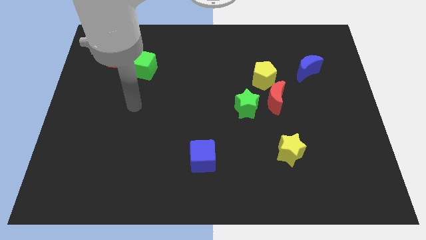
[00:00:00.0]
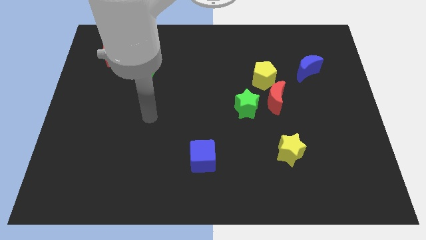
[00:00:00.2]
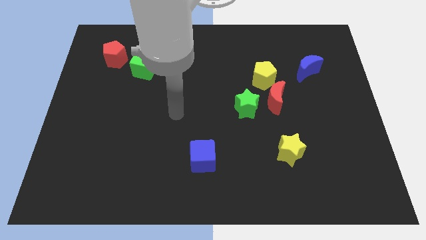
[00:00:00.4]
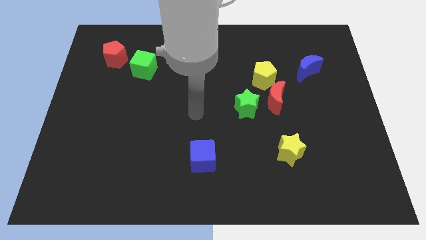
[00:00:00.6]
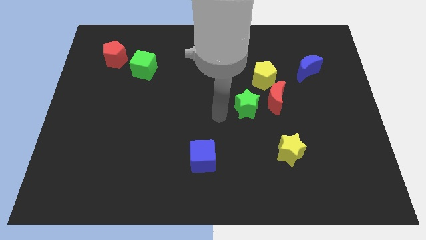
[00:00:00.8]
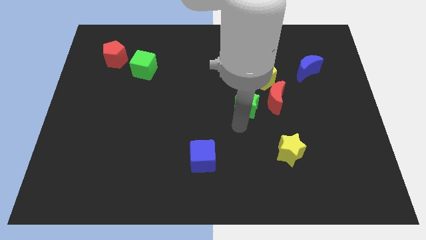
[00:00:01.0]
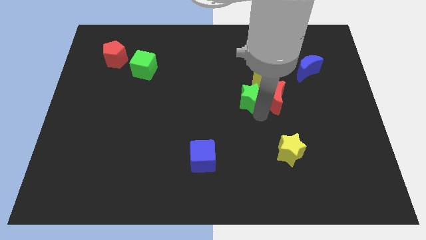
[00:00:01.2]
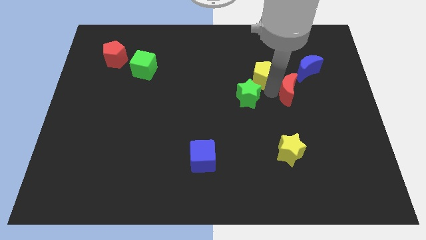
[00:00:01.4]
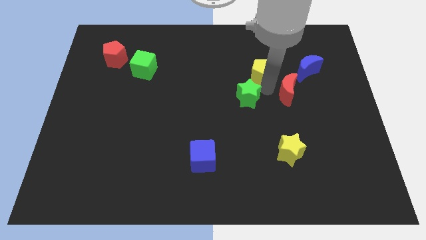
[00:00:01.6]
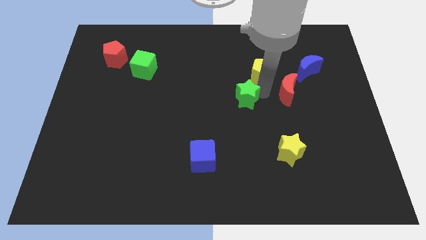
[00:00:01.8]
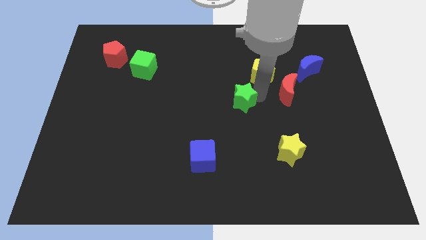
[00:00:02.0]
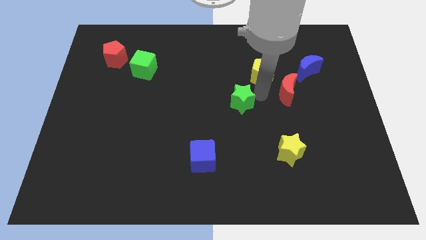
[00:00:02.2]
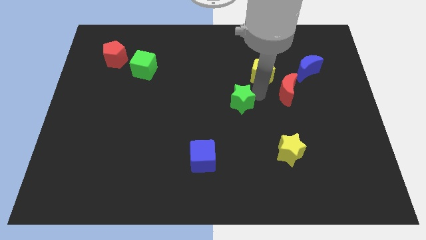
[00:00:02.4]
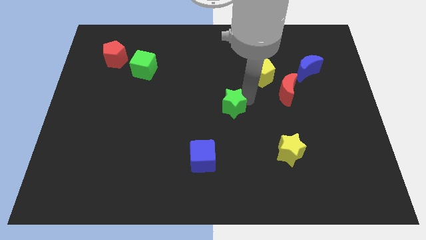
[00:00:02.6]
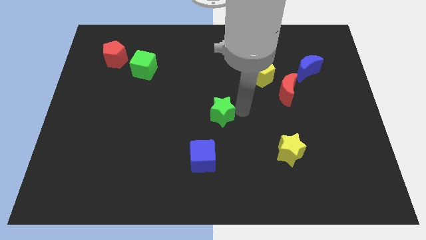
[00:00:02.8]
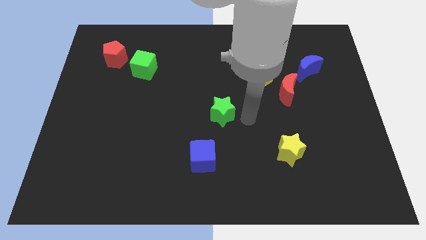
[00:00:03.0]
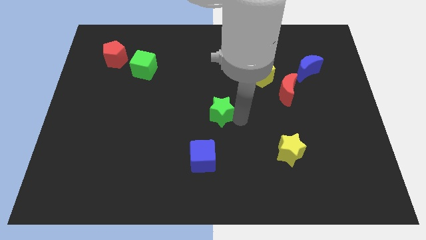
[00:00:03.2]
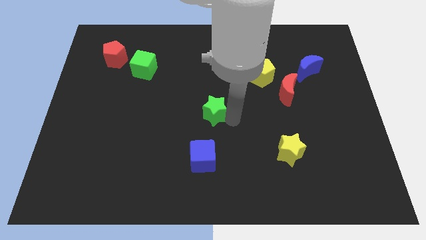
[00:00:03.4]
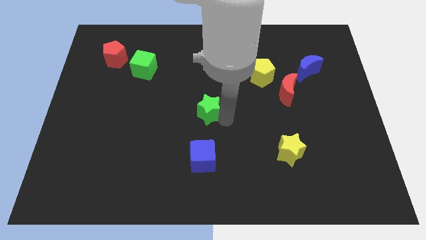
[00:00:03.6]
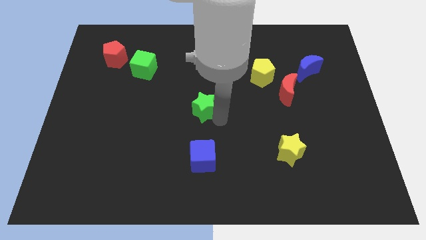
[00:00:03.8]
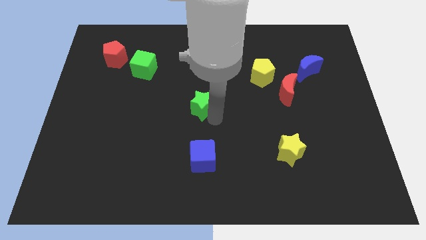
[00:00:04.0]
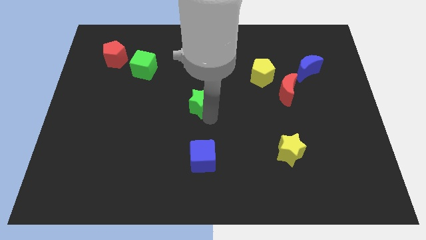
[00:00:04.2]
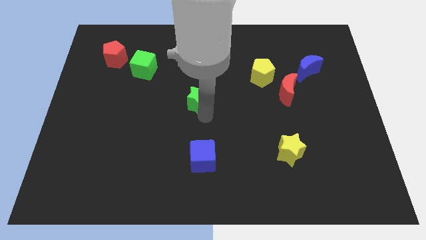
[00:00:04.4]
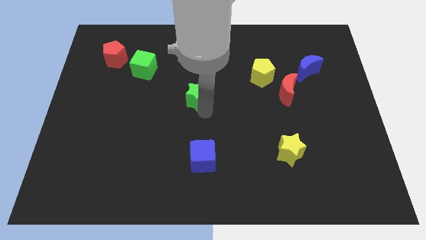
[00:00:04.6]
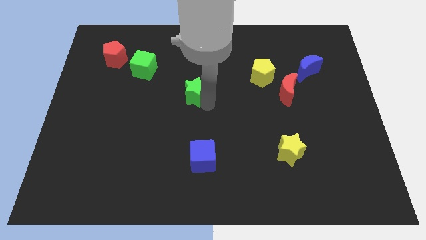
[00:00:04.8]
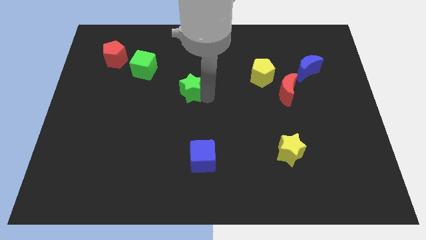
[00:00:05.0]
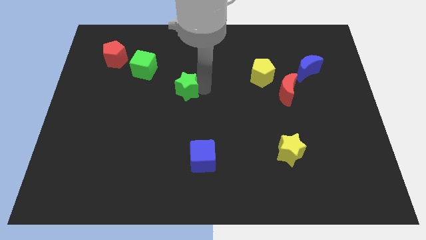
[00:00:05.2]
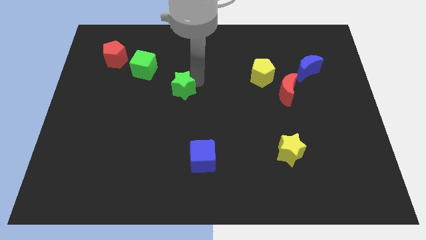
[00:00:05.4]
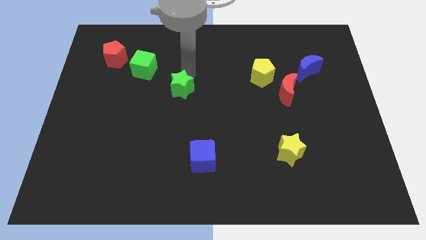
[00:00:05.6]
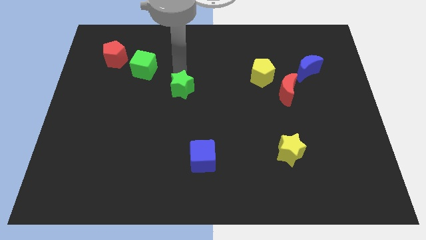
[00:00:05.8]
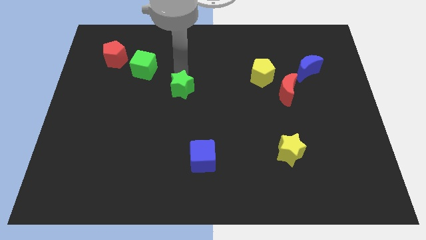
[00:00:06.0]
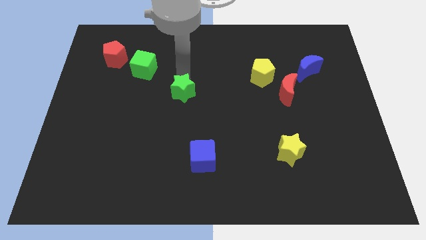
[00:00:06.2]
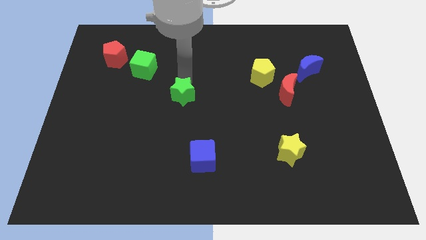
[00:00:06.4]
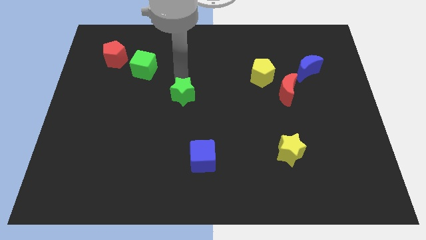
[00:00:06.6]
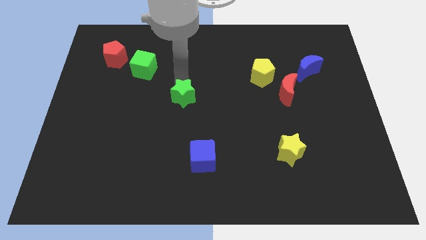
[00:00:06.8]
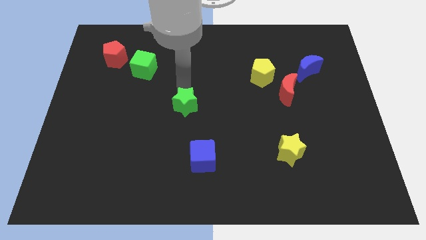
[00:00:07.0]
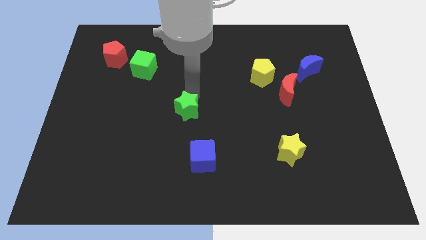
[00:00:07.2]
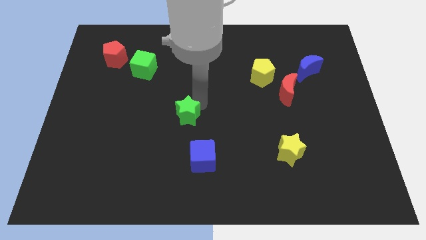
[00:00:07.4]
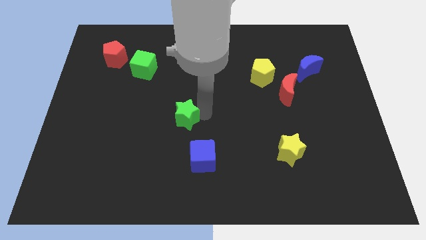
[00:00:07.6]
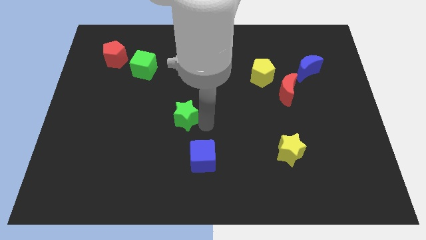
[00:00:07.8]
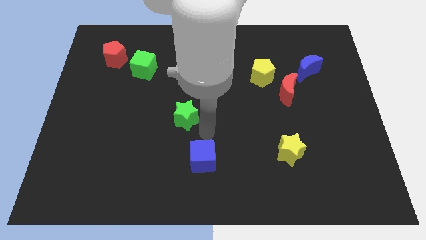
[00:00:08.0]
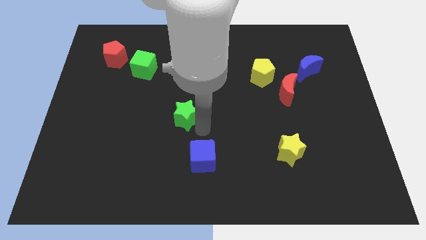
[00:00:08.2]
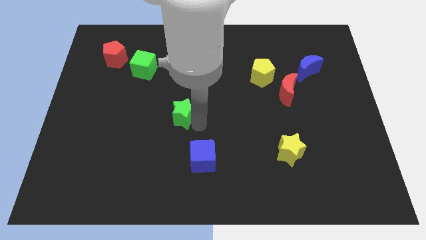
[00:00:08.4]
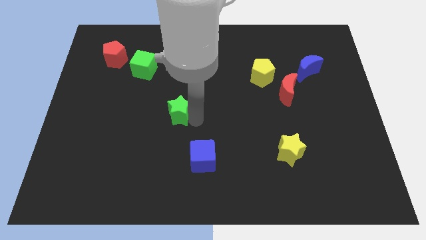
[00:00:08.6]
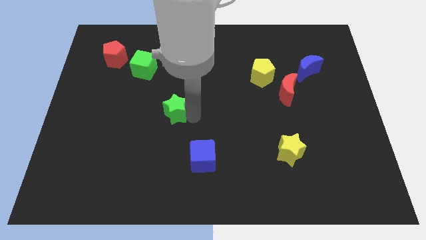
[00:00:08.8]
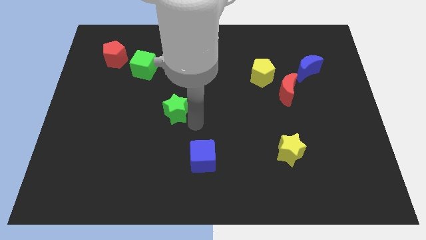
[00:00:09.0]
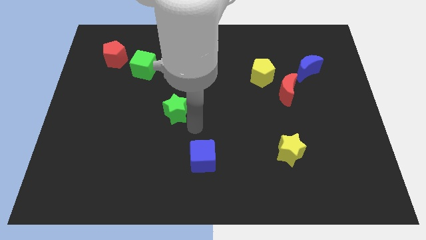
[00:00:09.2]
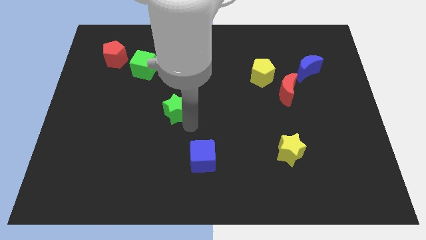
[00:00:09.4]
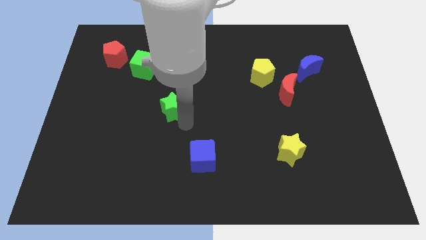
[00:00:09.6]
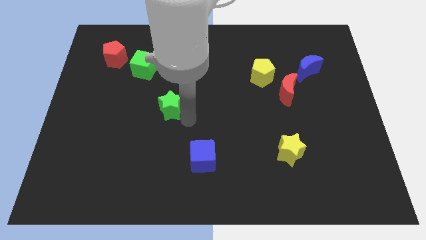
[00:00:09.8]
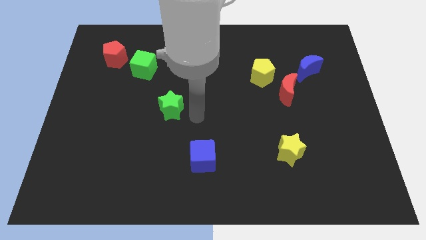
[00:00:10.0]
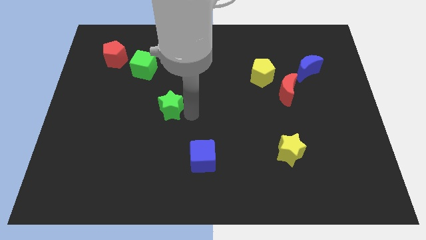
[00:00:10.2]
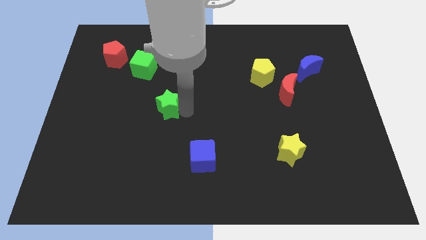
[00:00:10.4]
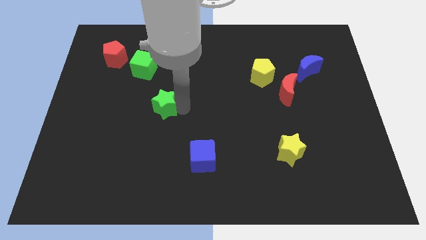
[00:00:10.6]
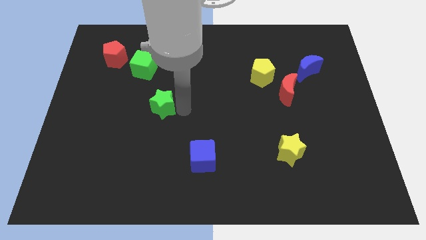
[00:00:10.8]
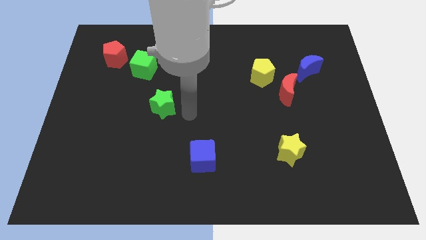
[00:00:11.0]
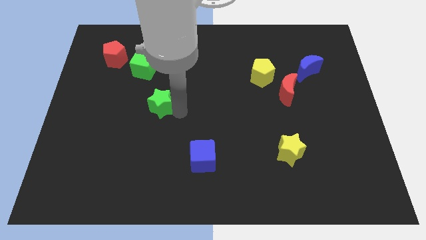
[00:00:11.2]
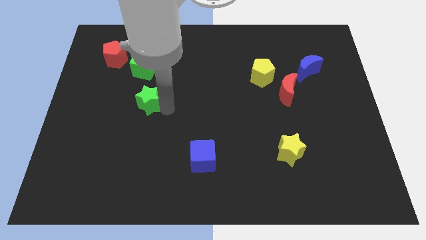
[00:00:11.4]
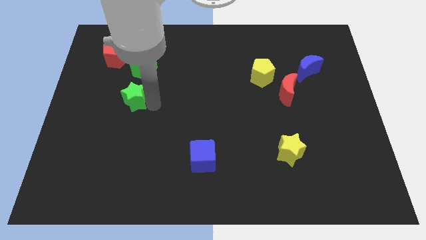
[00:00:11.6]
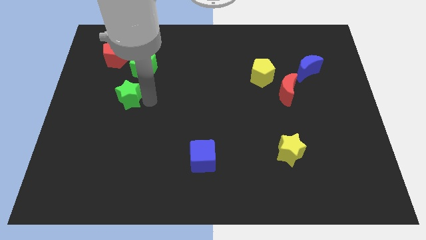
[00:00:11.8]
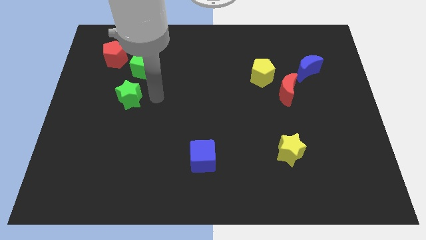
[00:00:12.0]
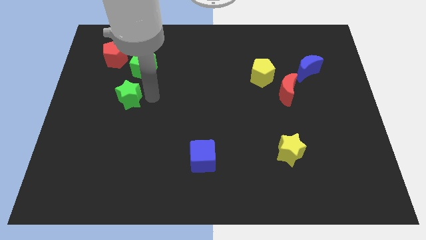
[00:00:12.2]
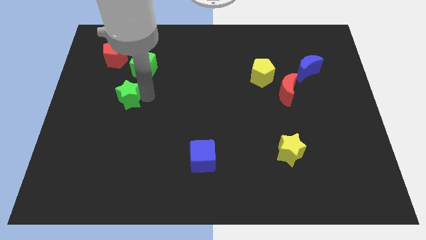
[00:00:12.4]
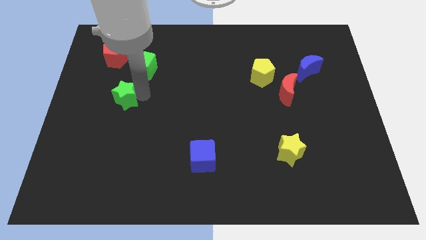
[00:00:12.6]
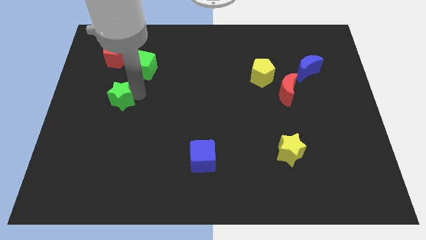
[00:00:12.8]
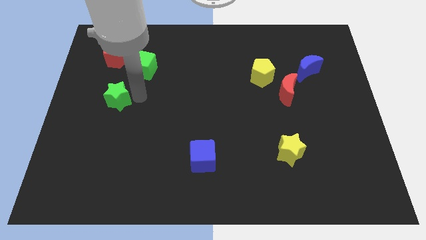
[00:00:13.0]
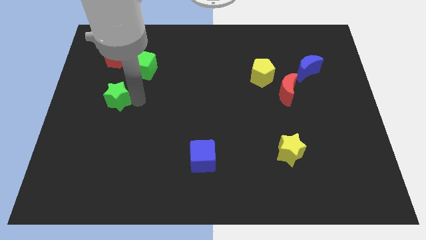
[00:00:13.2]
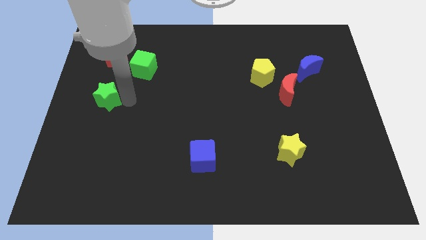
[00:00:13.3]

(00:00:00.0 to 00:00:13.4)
push the green star to the center left

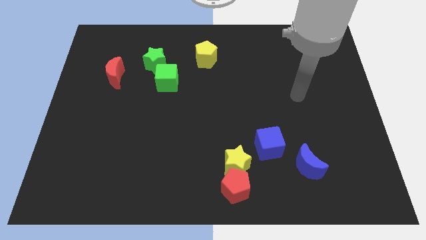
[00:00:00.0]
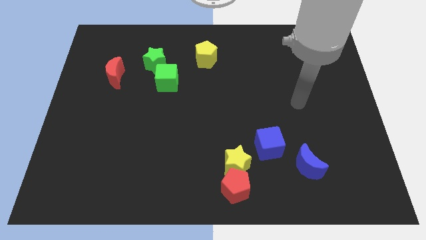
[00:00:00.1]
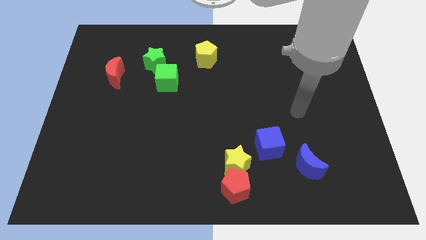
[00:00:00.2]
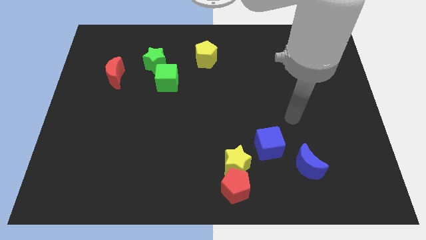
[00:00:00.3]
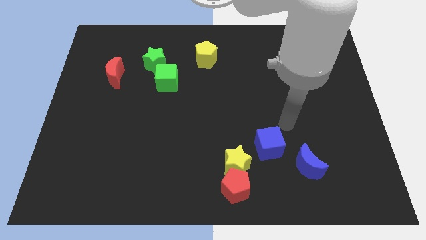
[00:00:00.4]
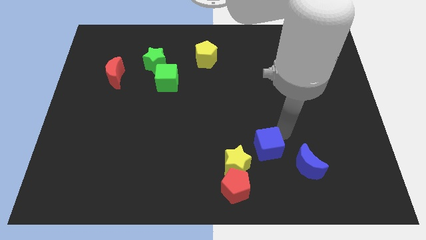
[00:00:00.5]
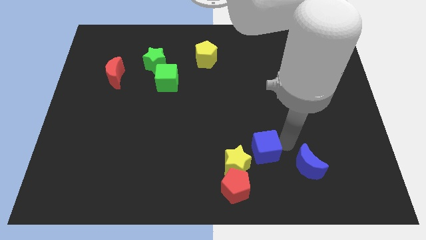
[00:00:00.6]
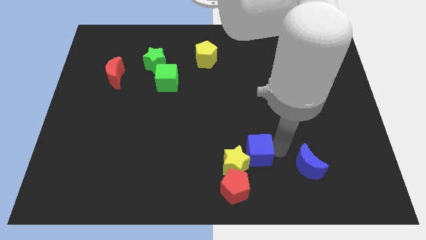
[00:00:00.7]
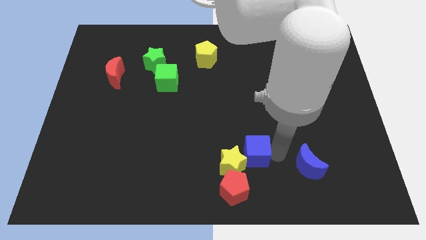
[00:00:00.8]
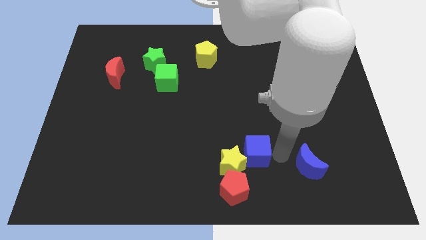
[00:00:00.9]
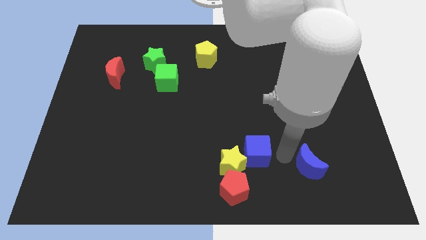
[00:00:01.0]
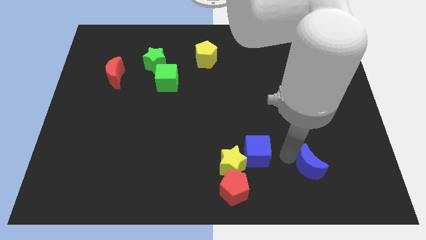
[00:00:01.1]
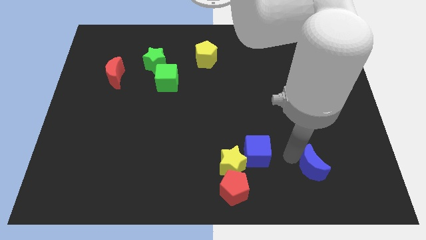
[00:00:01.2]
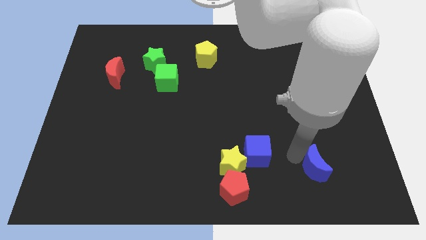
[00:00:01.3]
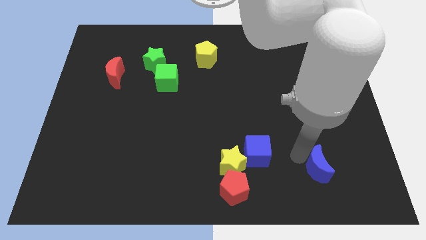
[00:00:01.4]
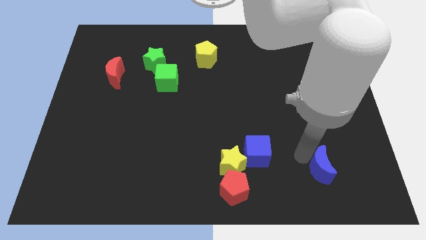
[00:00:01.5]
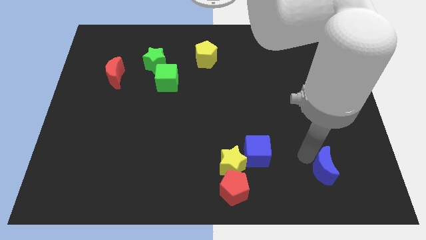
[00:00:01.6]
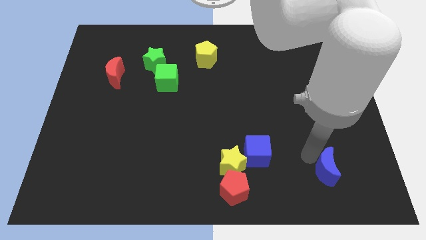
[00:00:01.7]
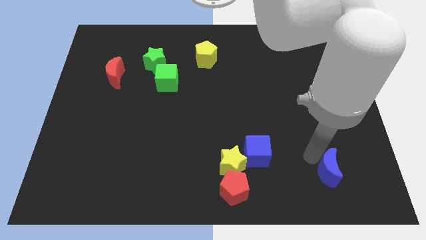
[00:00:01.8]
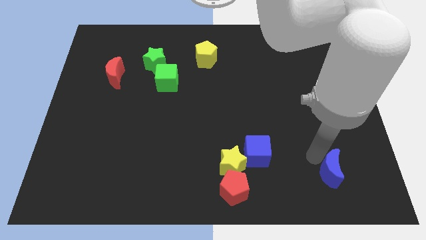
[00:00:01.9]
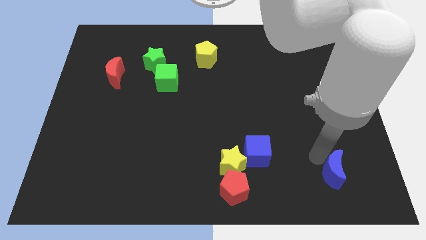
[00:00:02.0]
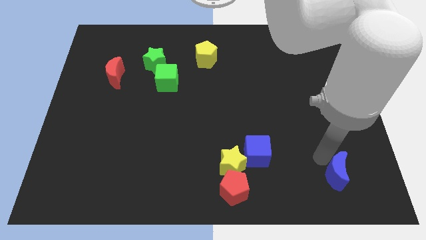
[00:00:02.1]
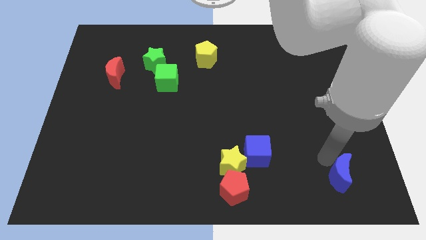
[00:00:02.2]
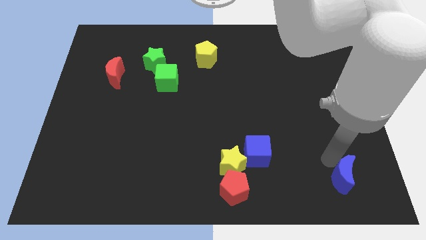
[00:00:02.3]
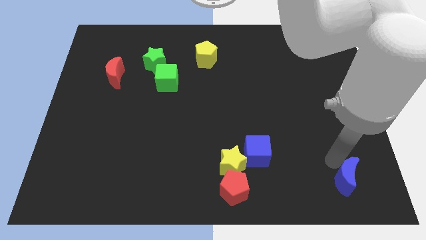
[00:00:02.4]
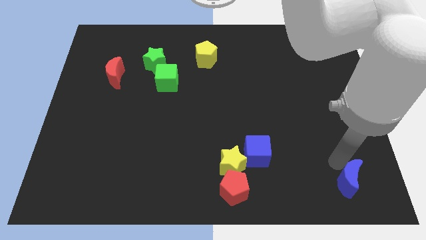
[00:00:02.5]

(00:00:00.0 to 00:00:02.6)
push the blue moon to the bottom right of the board
